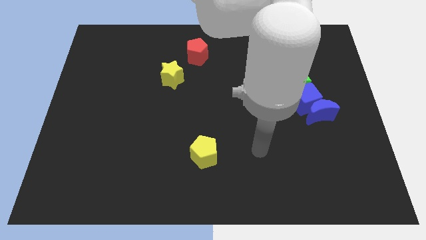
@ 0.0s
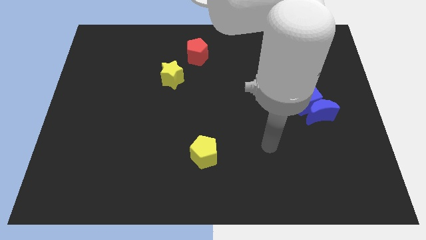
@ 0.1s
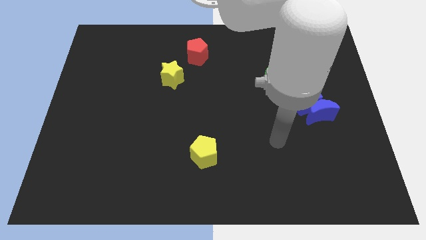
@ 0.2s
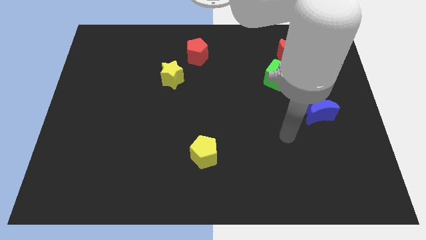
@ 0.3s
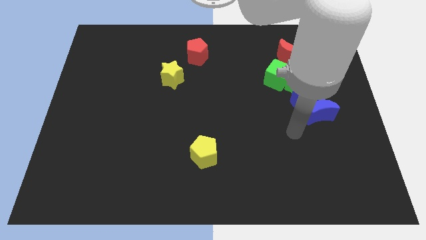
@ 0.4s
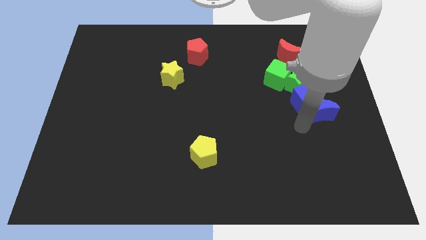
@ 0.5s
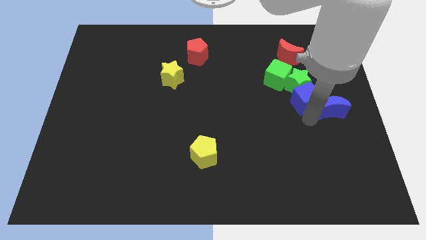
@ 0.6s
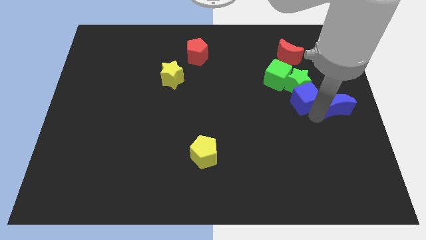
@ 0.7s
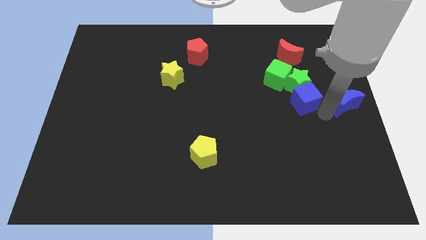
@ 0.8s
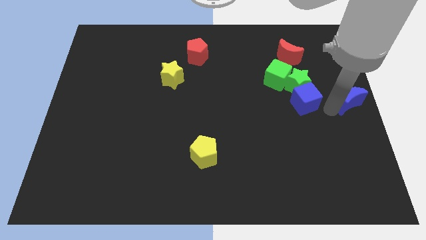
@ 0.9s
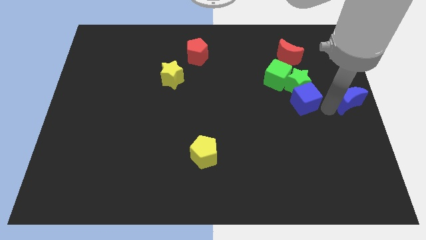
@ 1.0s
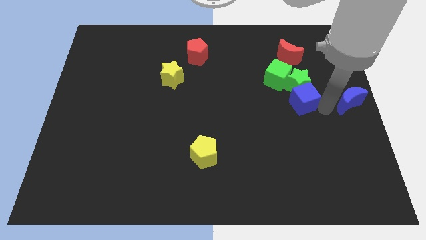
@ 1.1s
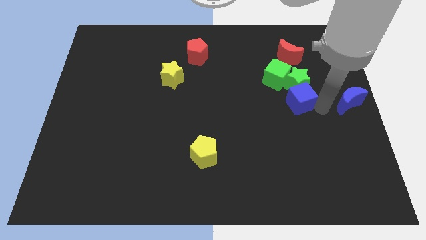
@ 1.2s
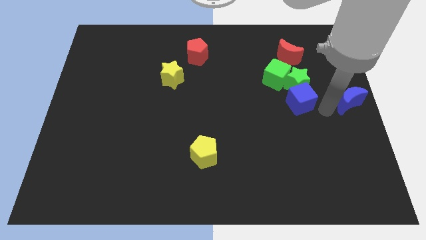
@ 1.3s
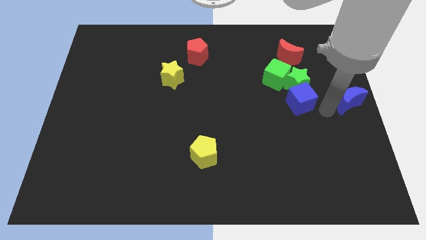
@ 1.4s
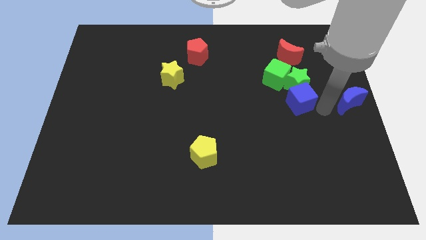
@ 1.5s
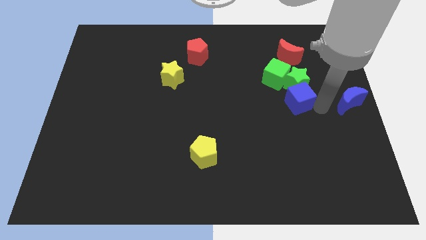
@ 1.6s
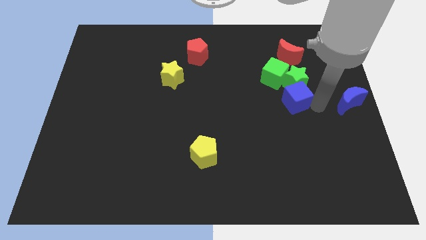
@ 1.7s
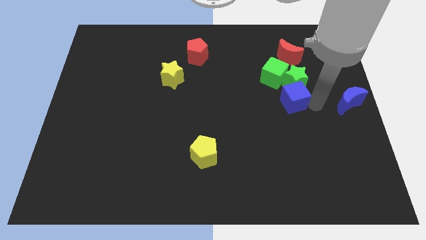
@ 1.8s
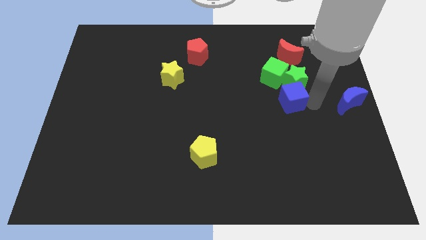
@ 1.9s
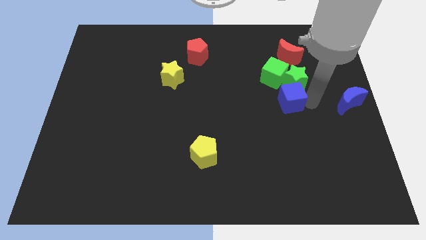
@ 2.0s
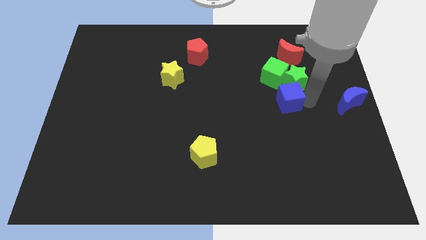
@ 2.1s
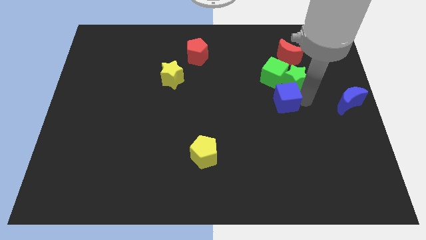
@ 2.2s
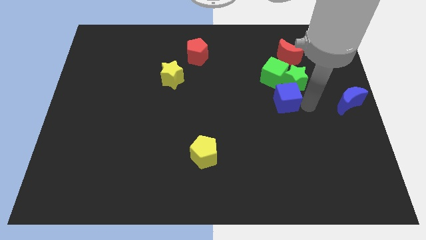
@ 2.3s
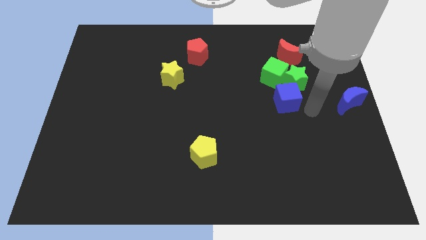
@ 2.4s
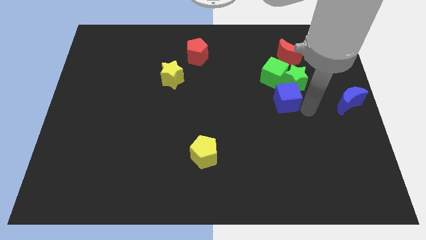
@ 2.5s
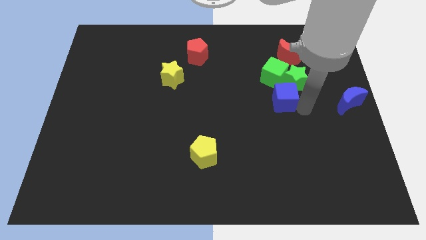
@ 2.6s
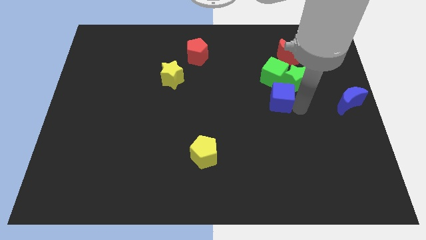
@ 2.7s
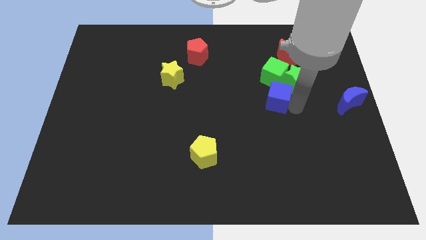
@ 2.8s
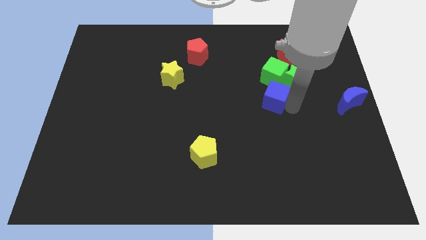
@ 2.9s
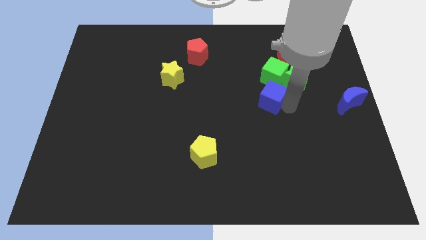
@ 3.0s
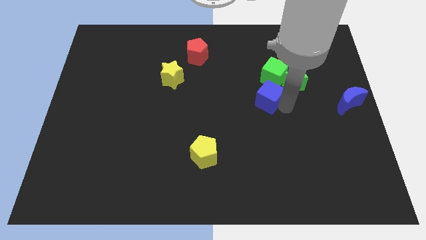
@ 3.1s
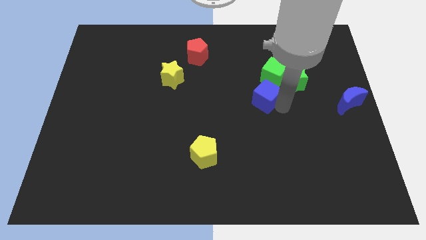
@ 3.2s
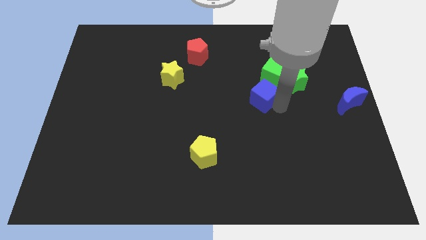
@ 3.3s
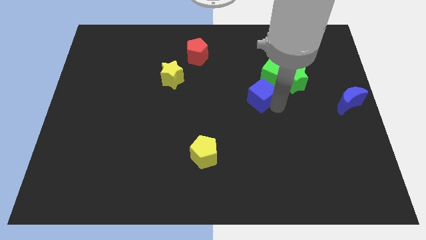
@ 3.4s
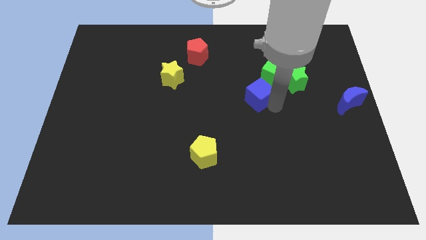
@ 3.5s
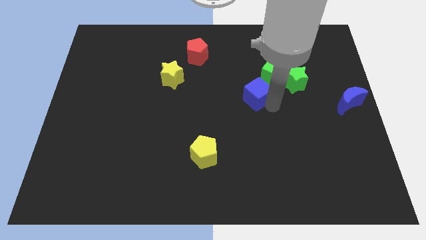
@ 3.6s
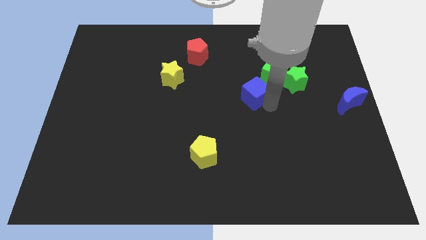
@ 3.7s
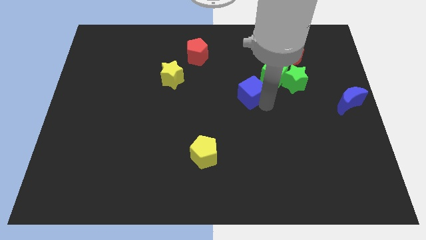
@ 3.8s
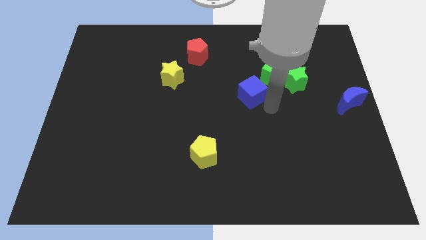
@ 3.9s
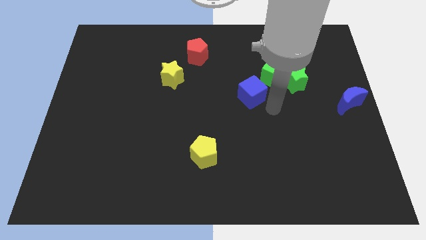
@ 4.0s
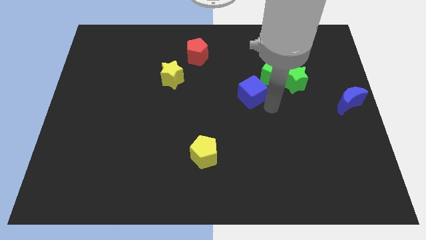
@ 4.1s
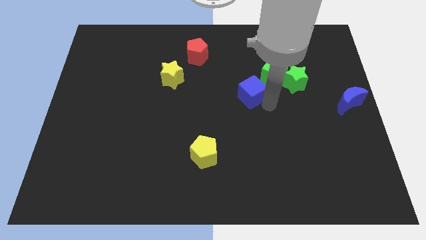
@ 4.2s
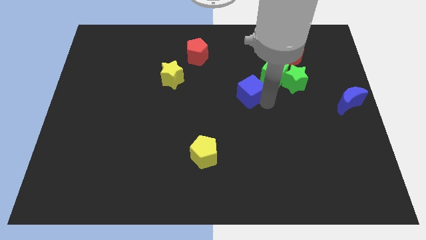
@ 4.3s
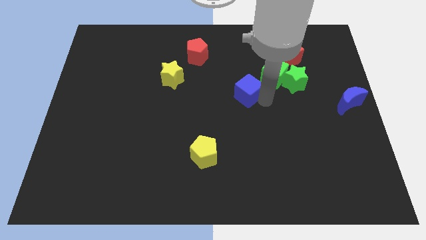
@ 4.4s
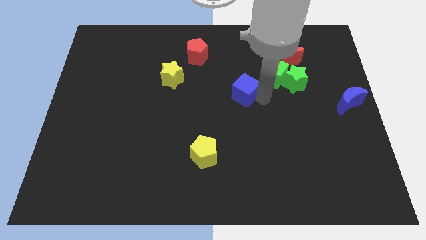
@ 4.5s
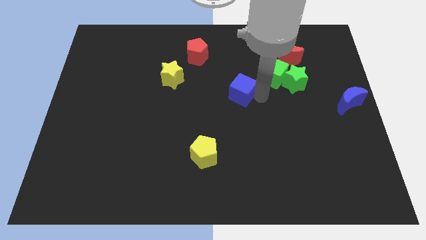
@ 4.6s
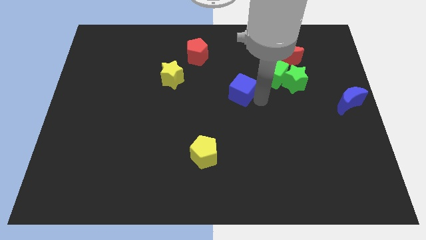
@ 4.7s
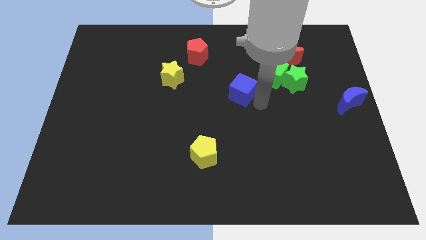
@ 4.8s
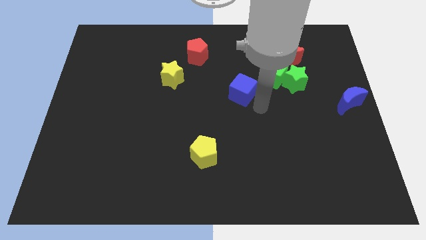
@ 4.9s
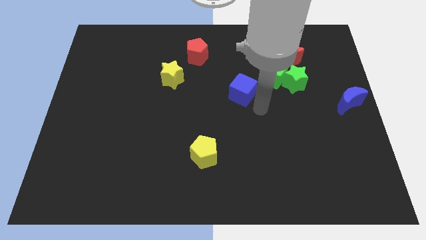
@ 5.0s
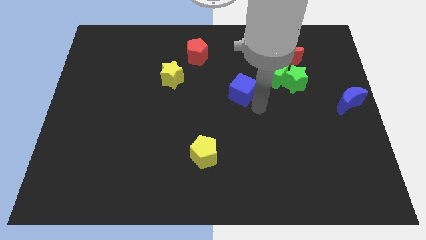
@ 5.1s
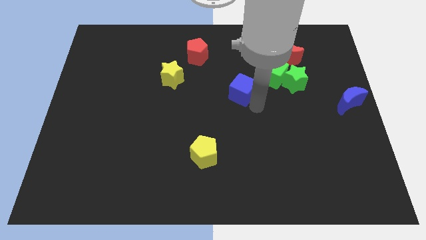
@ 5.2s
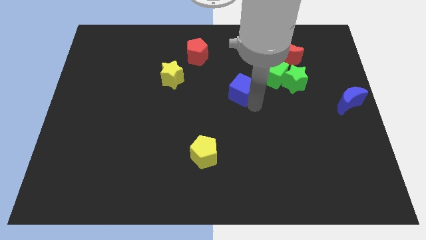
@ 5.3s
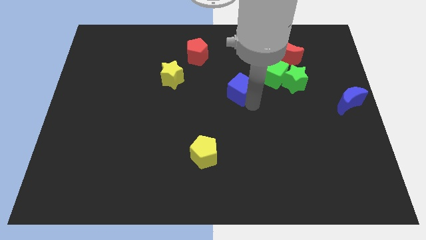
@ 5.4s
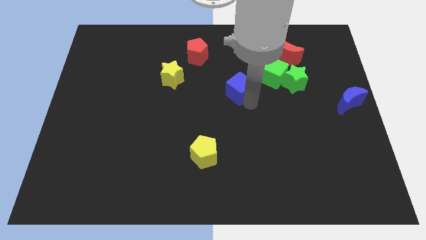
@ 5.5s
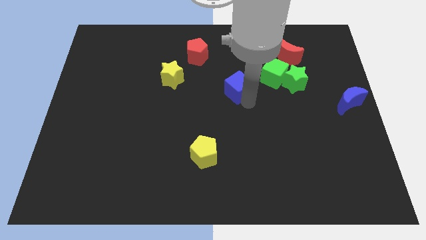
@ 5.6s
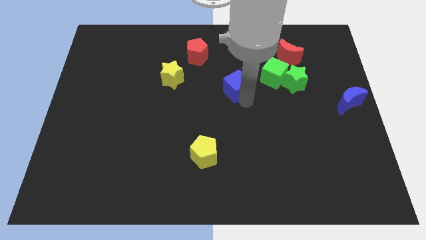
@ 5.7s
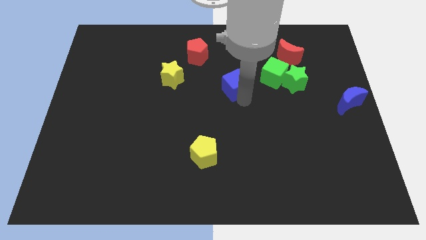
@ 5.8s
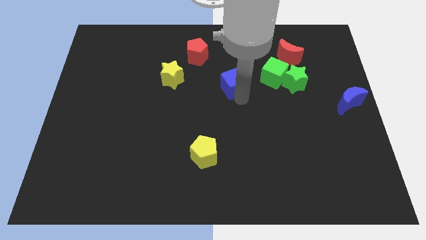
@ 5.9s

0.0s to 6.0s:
push the blue cube to the right of the yellow star

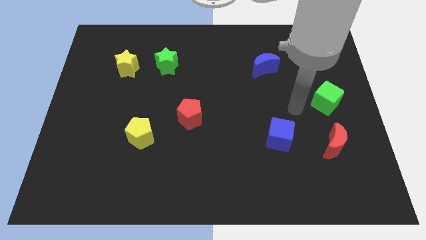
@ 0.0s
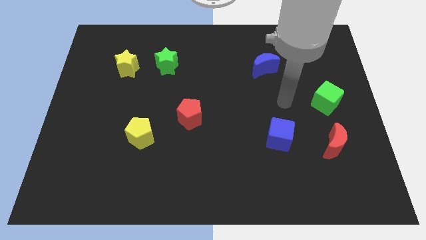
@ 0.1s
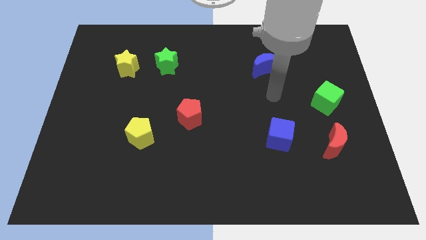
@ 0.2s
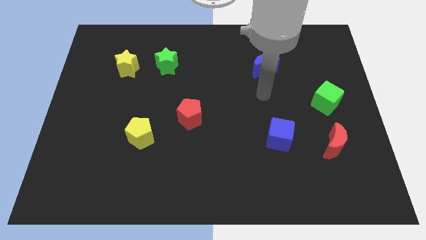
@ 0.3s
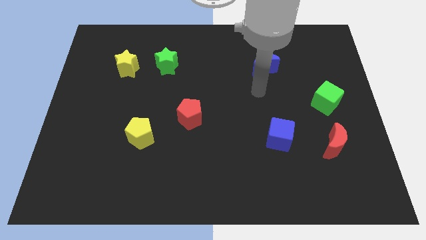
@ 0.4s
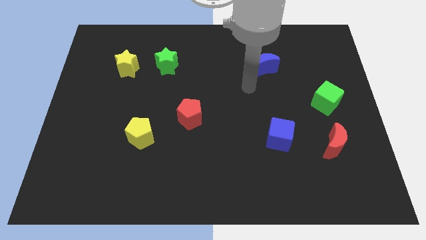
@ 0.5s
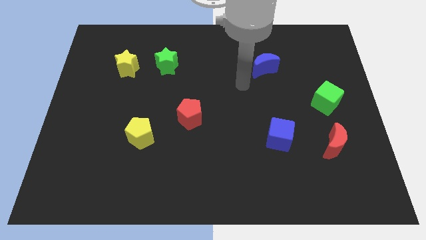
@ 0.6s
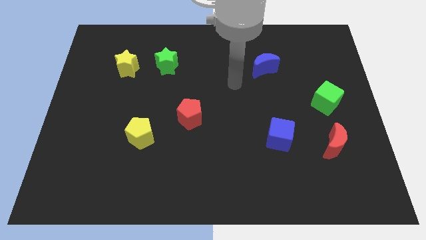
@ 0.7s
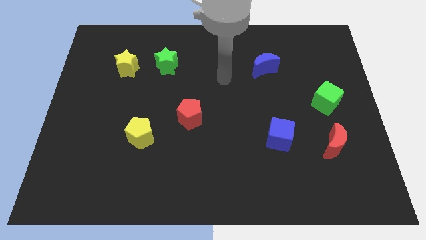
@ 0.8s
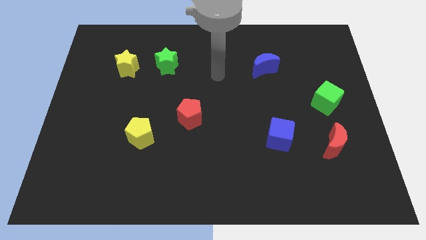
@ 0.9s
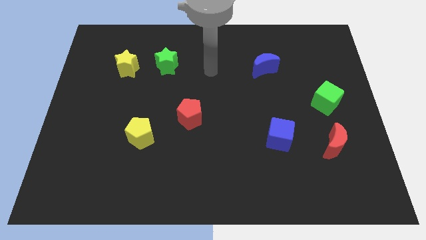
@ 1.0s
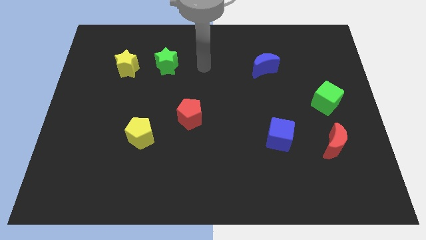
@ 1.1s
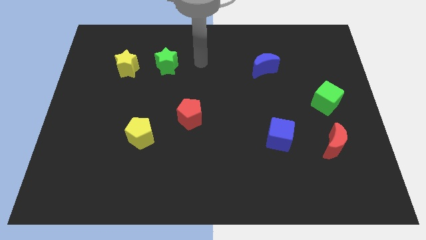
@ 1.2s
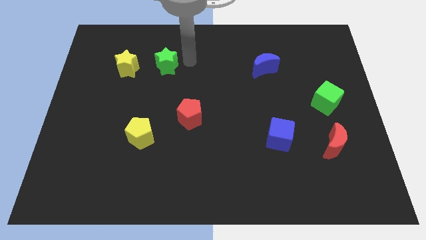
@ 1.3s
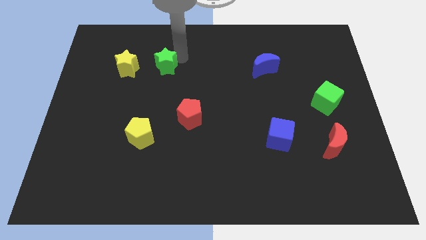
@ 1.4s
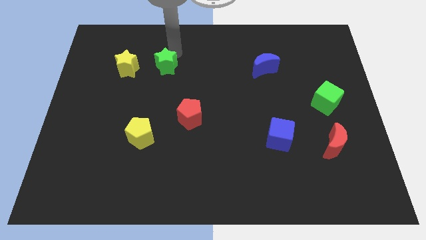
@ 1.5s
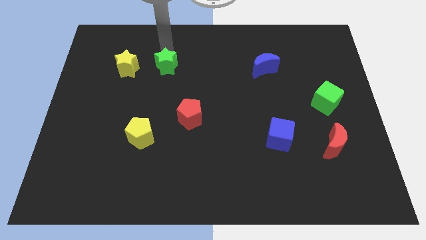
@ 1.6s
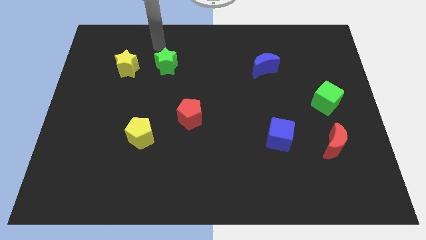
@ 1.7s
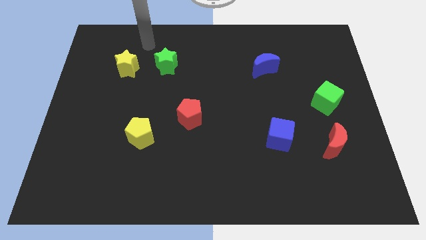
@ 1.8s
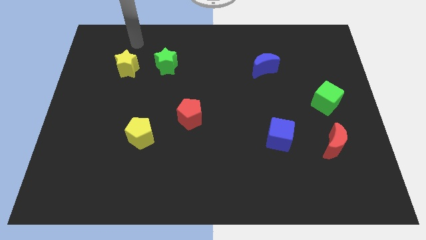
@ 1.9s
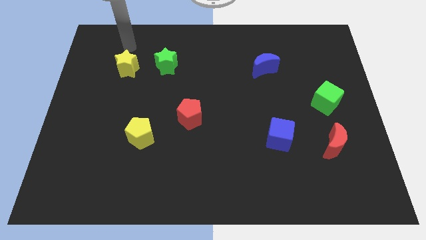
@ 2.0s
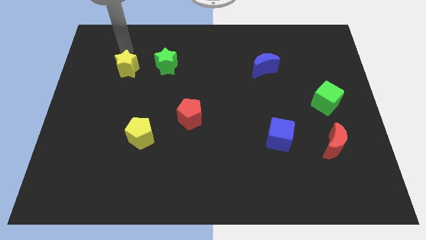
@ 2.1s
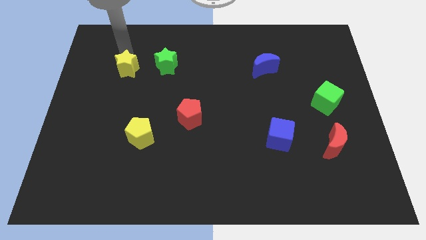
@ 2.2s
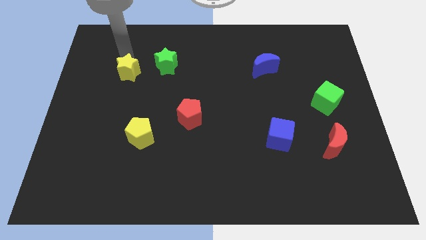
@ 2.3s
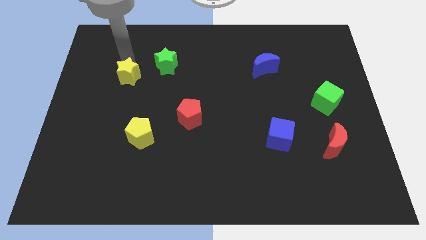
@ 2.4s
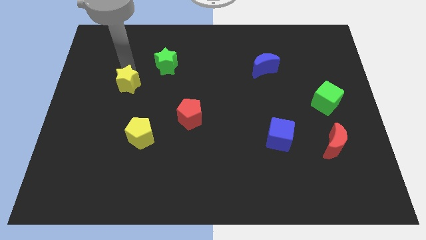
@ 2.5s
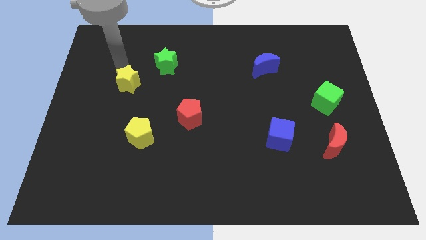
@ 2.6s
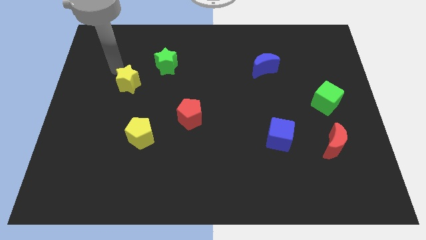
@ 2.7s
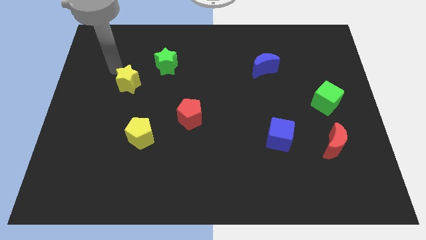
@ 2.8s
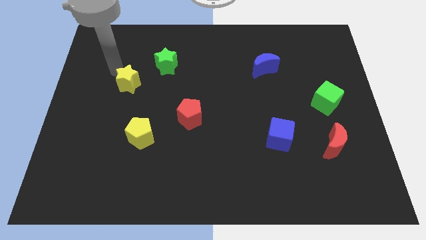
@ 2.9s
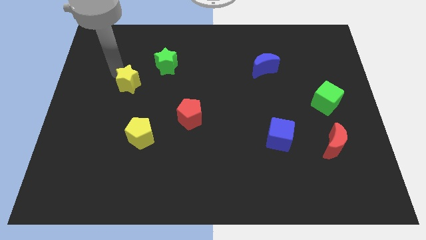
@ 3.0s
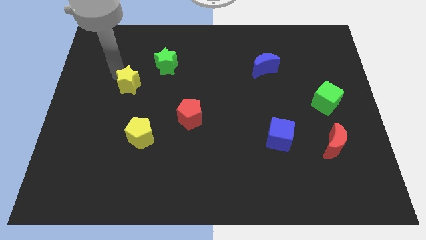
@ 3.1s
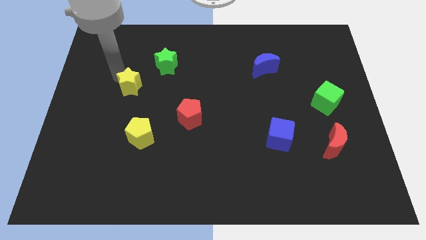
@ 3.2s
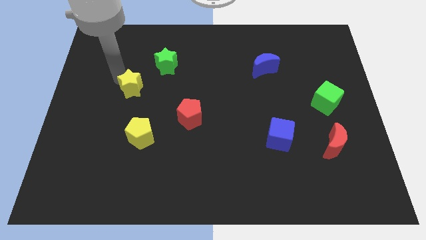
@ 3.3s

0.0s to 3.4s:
put the yellow star above the yellow pentagon
